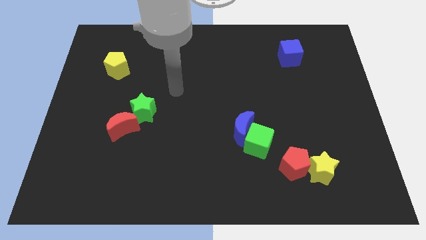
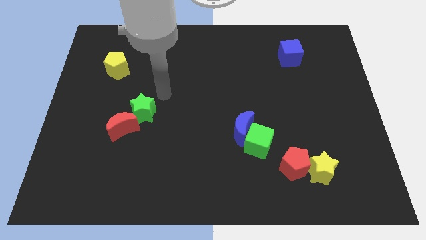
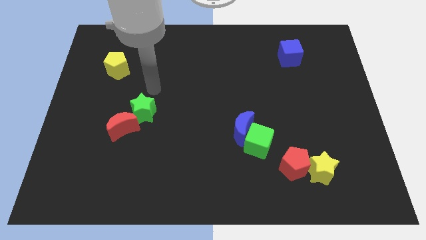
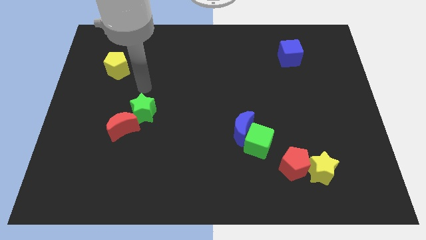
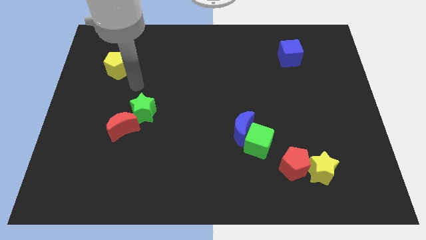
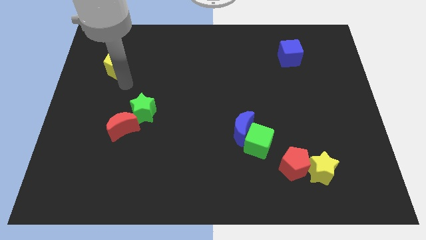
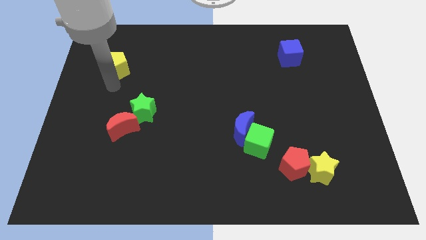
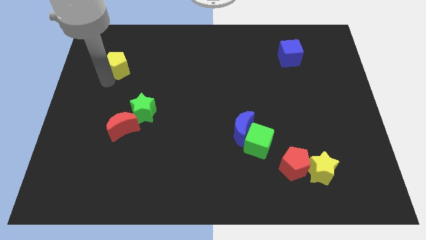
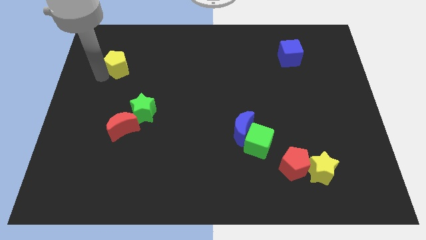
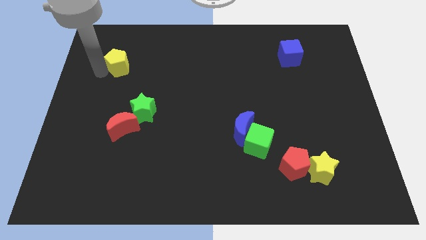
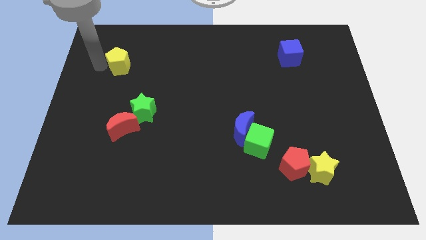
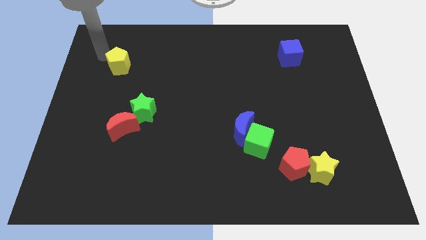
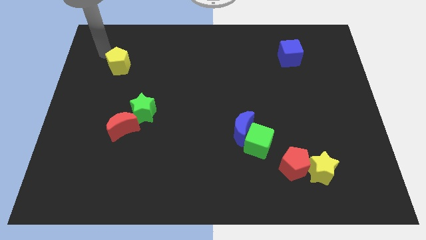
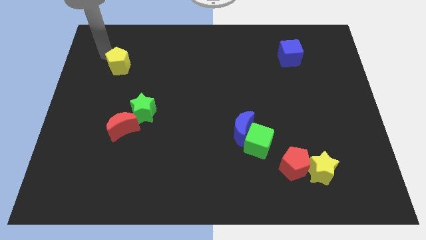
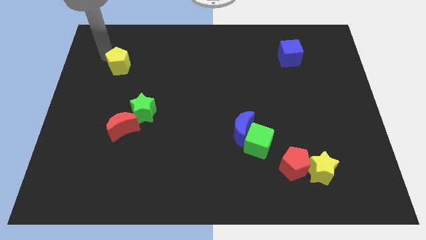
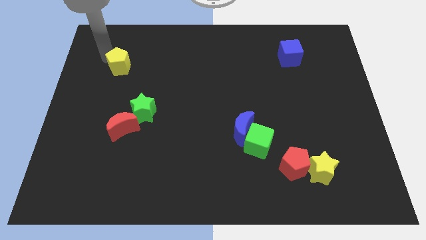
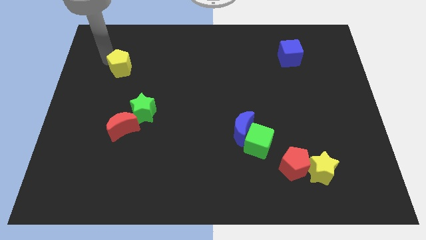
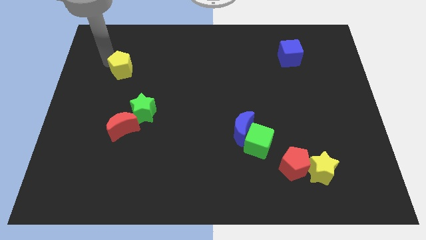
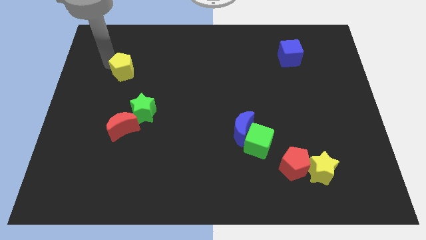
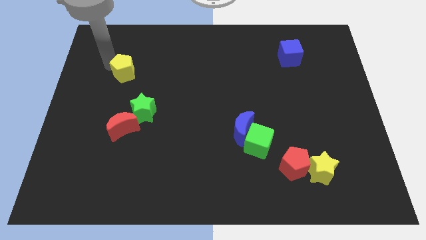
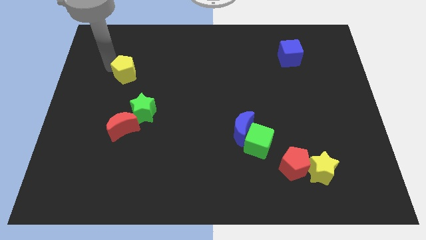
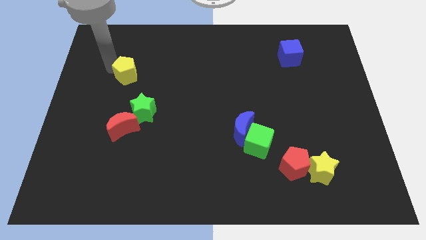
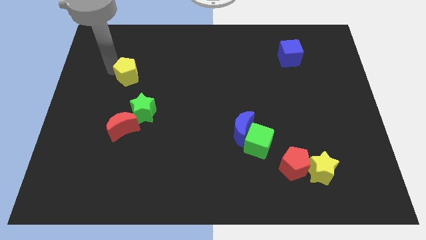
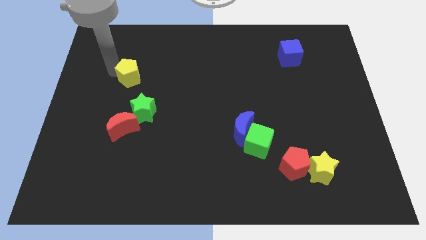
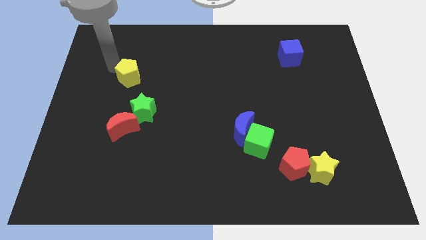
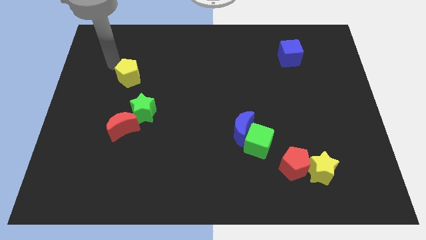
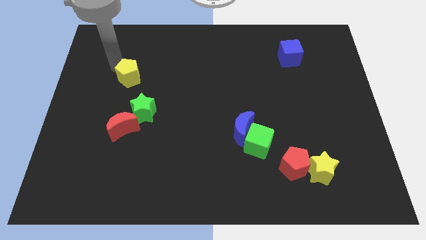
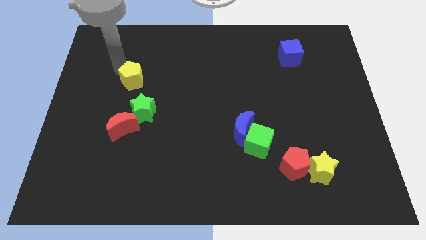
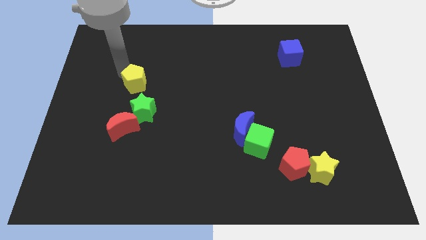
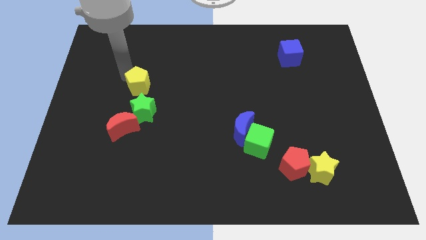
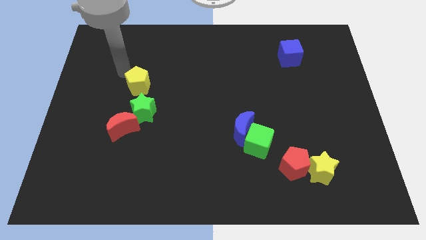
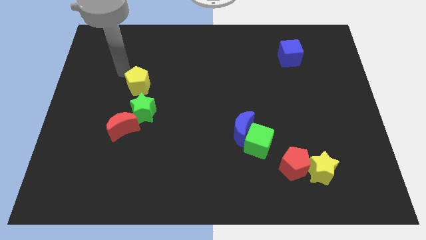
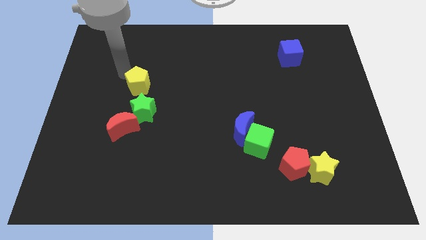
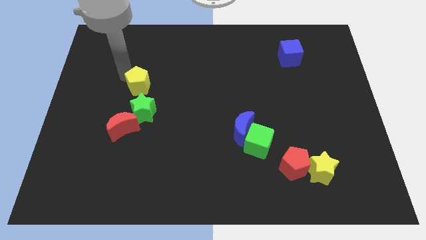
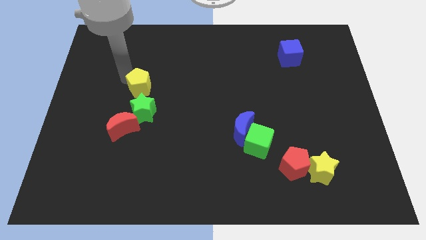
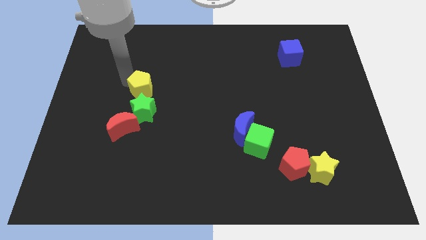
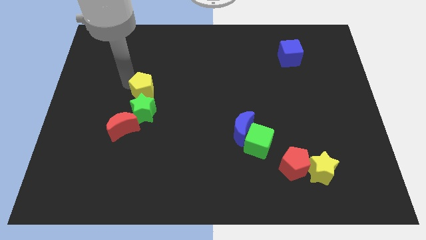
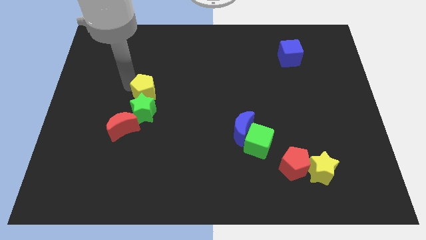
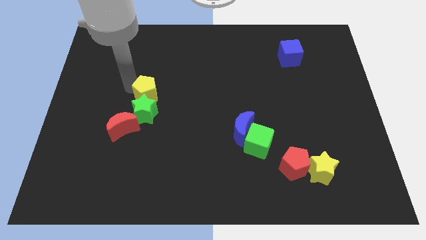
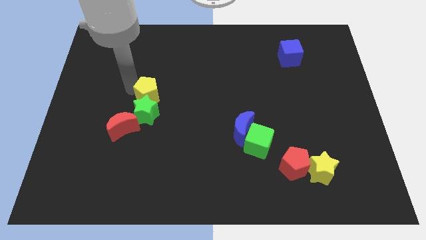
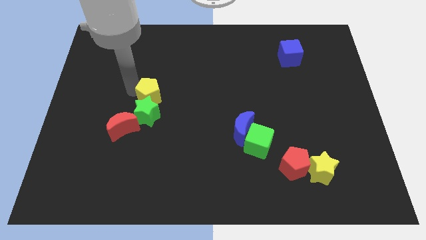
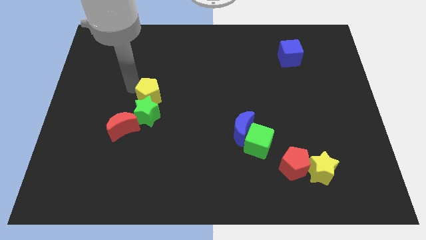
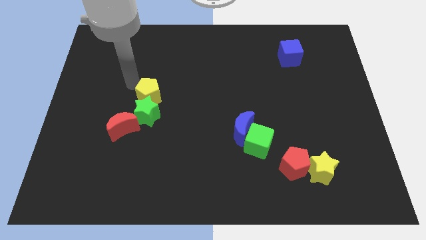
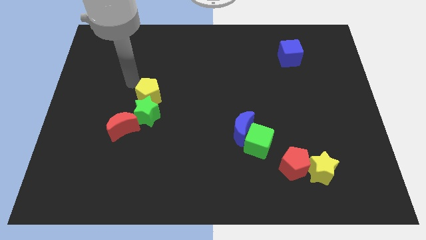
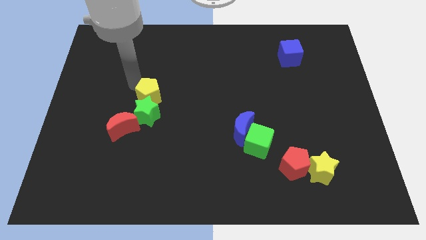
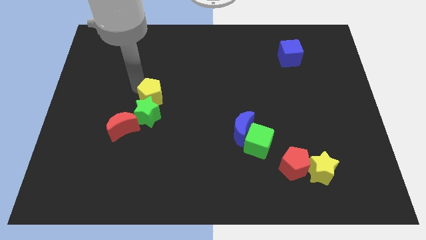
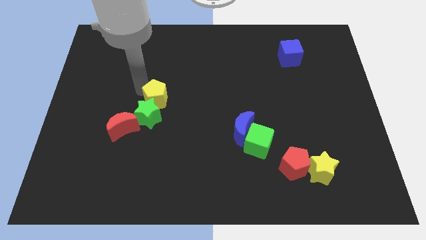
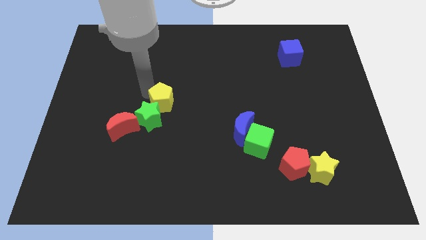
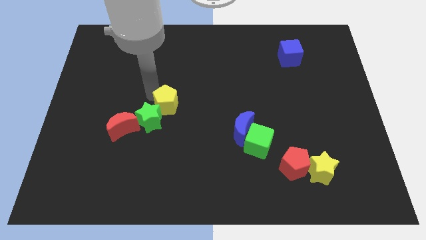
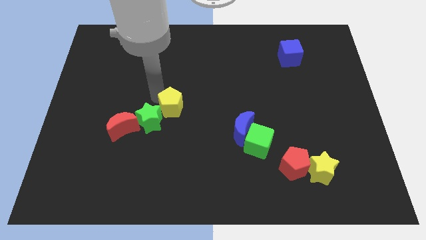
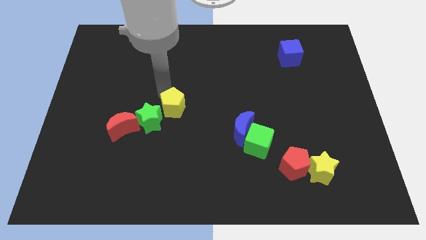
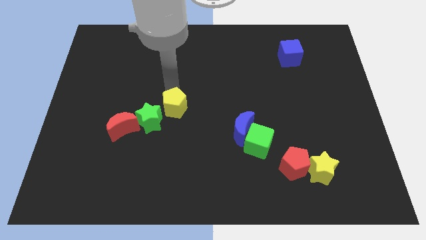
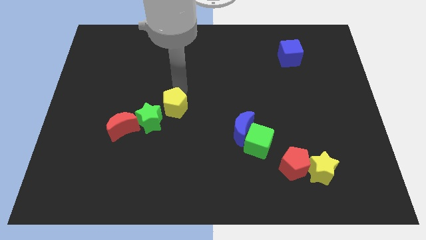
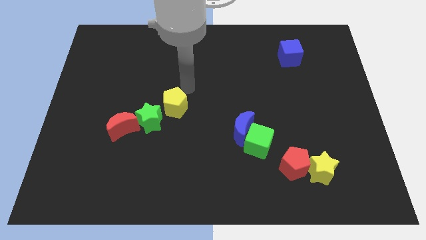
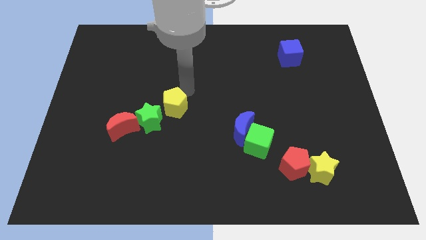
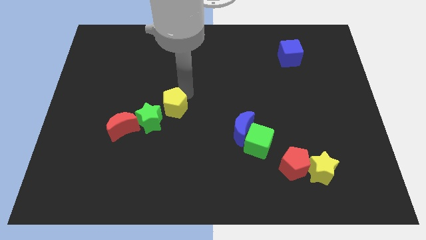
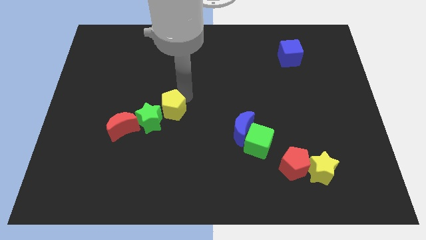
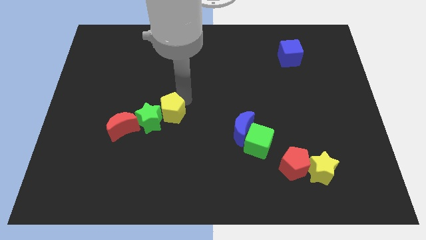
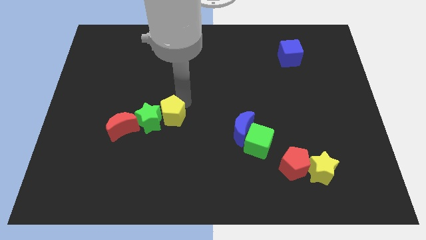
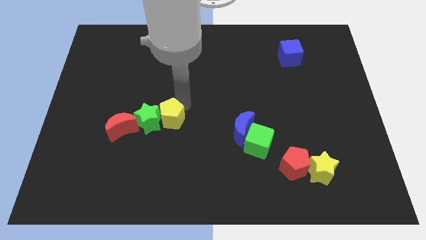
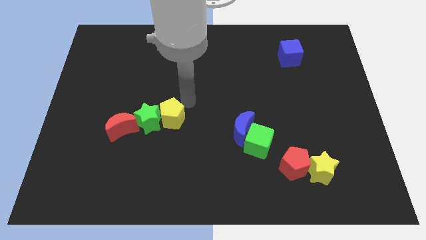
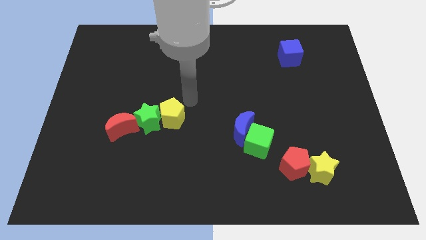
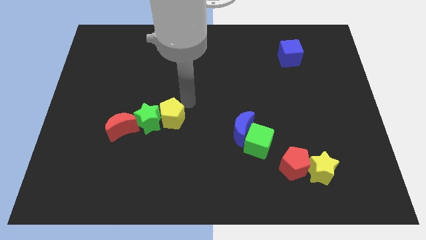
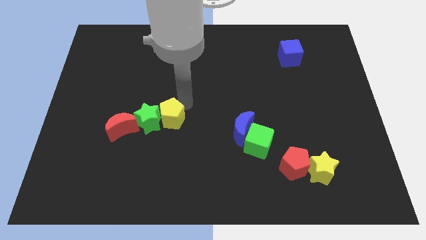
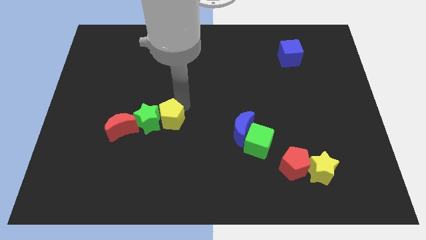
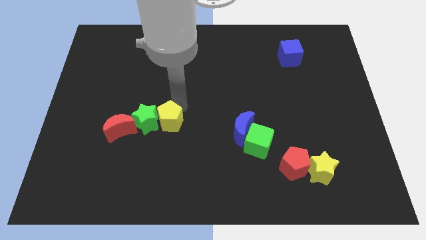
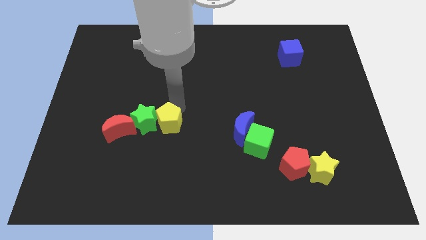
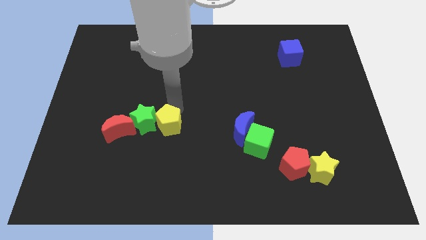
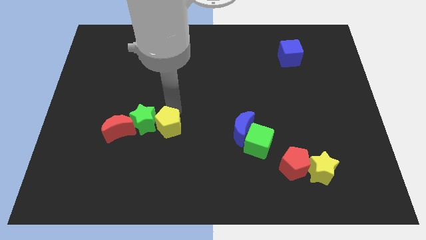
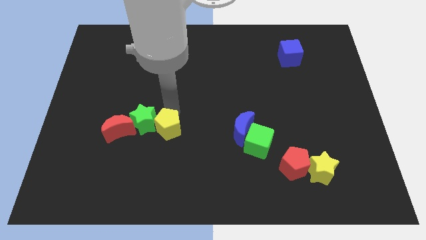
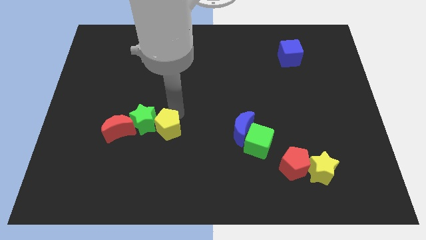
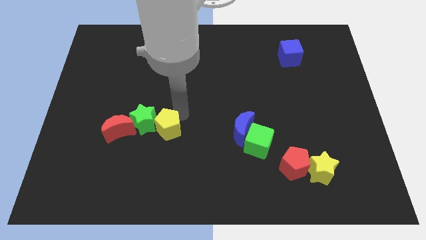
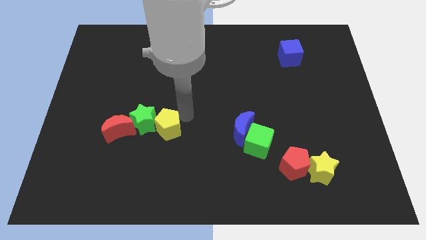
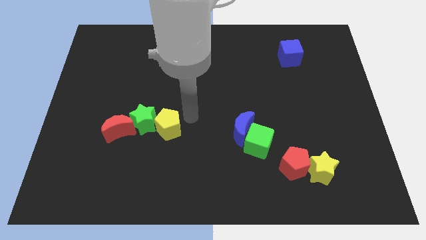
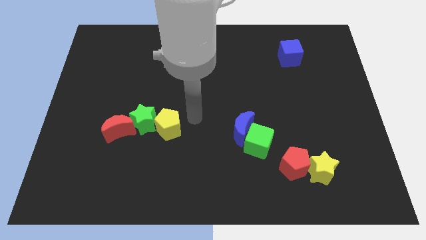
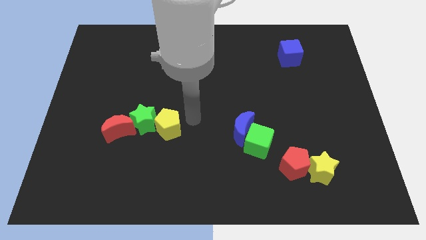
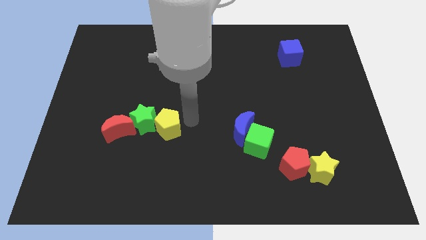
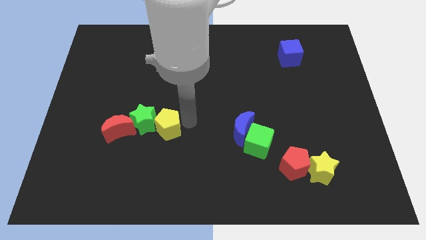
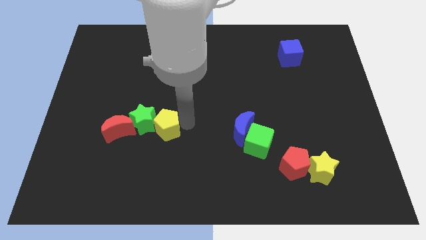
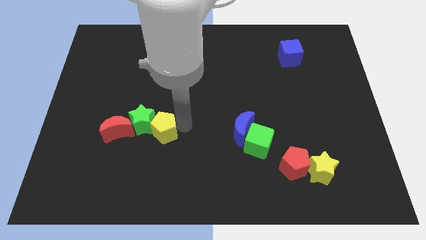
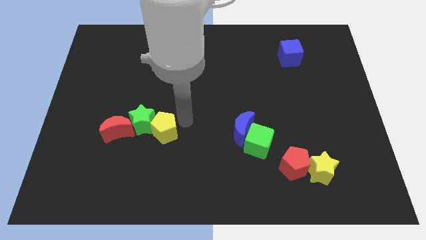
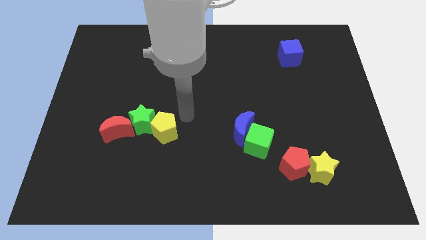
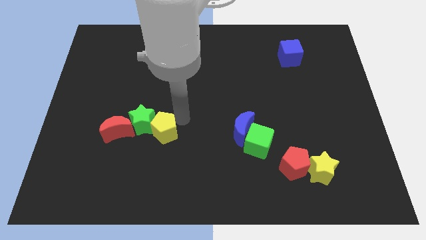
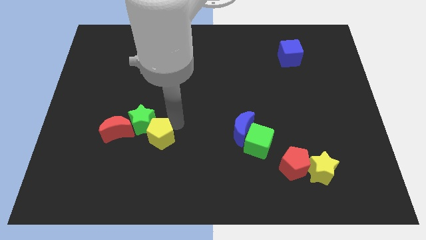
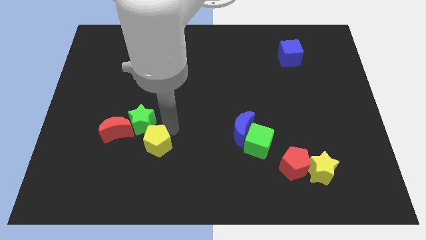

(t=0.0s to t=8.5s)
slide the yellow pentagon to the bottom right of the red moon
